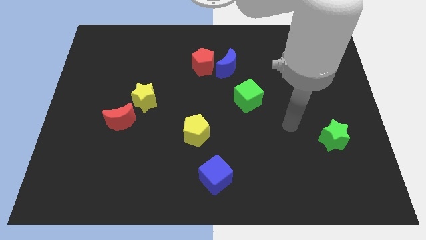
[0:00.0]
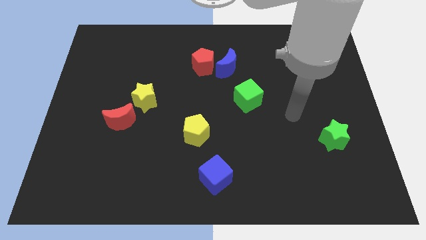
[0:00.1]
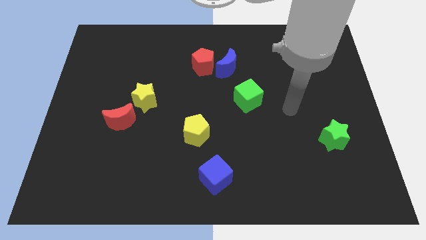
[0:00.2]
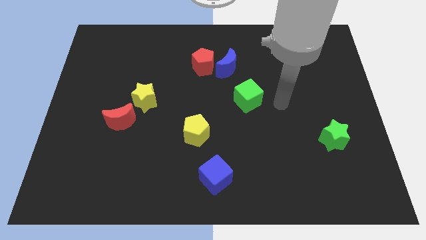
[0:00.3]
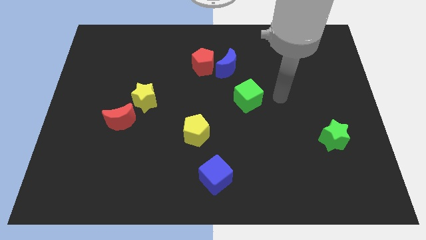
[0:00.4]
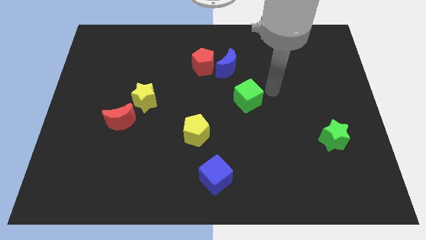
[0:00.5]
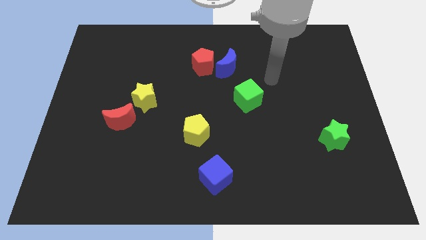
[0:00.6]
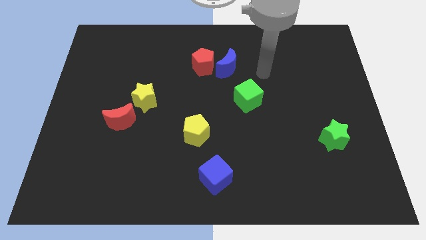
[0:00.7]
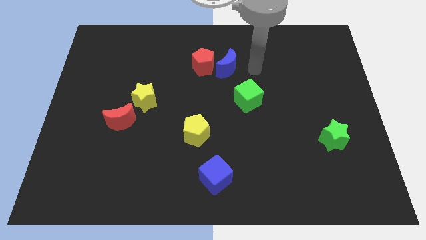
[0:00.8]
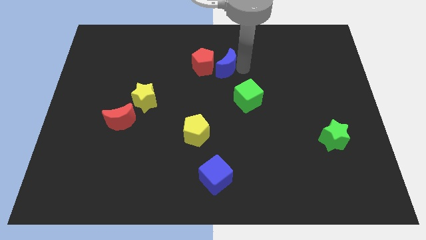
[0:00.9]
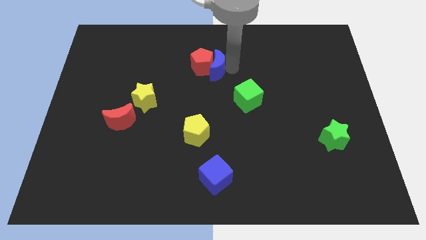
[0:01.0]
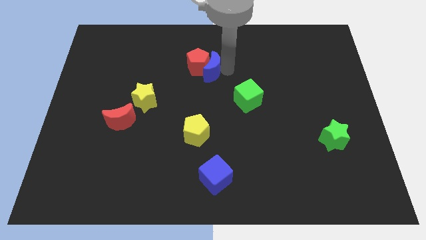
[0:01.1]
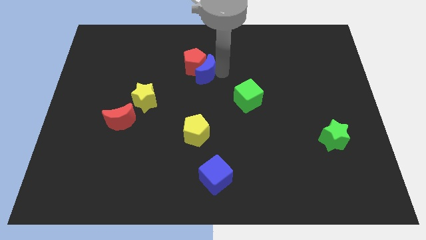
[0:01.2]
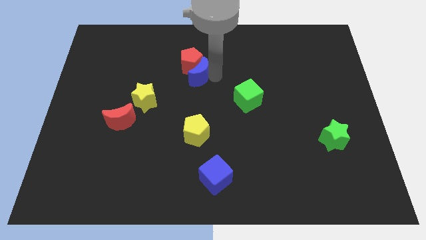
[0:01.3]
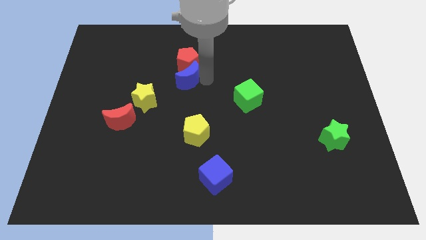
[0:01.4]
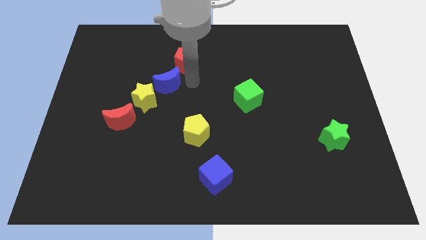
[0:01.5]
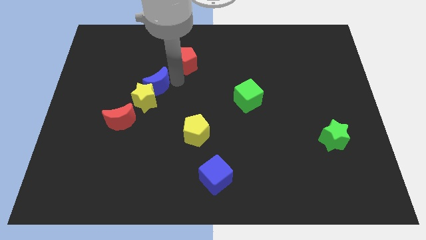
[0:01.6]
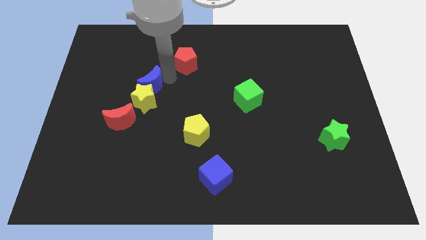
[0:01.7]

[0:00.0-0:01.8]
separate the red pentagon from the blue moon

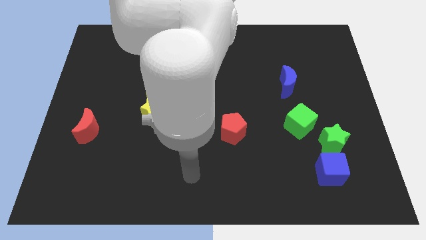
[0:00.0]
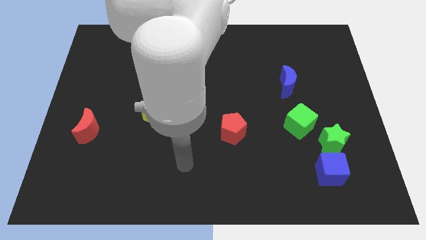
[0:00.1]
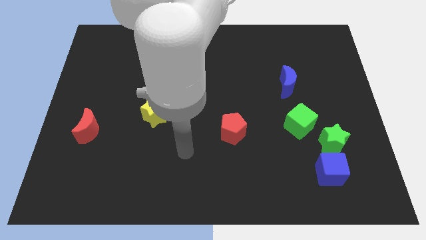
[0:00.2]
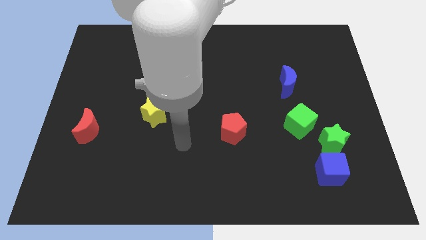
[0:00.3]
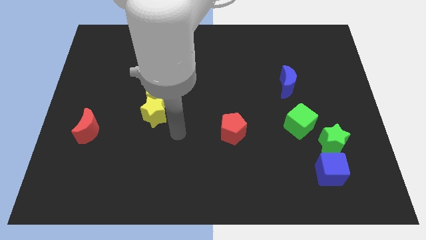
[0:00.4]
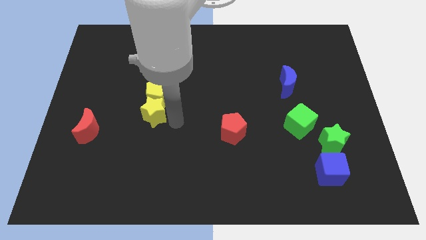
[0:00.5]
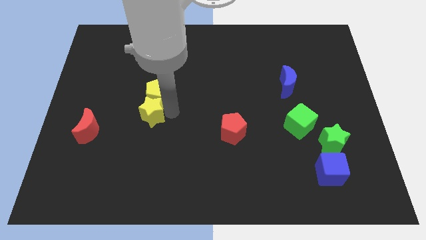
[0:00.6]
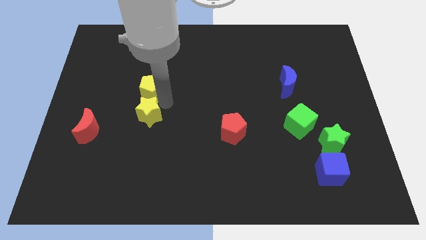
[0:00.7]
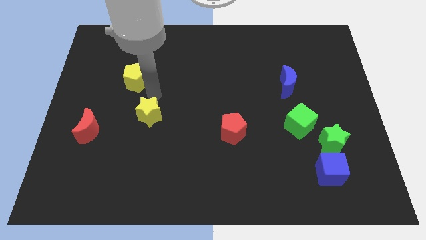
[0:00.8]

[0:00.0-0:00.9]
move the yellow star away from the yellow pentagon

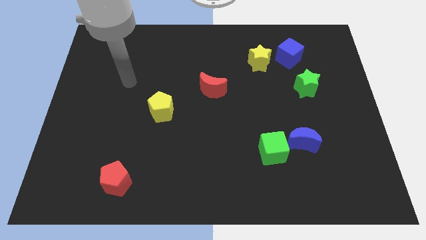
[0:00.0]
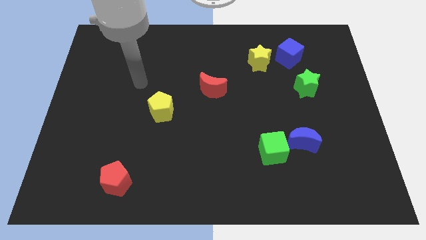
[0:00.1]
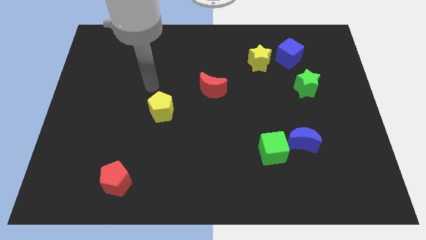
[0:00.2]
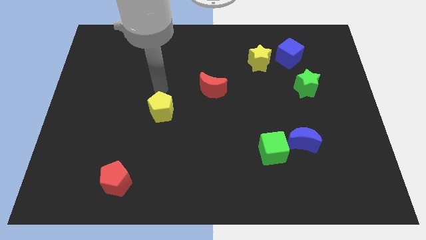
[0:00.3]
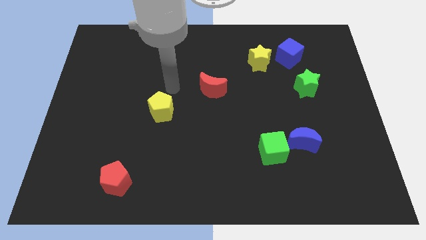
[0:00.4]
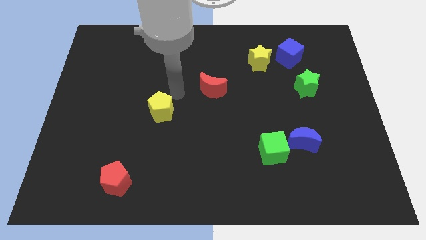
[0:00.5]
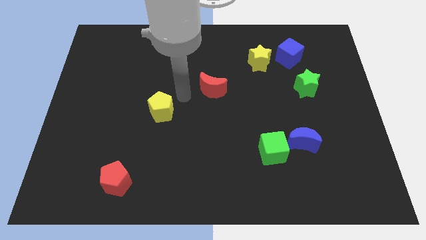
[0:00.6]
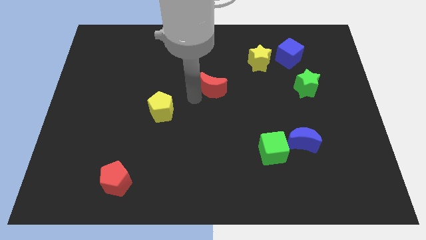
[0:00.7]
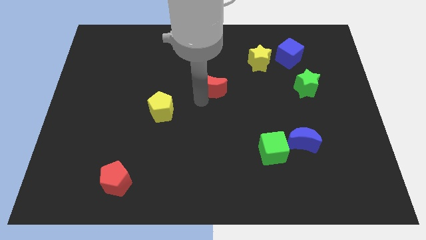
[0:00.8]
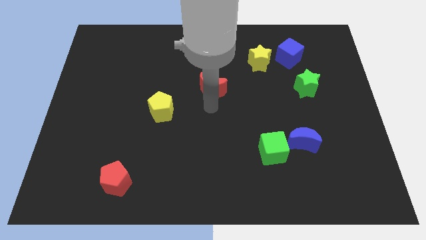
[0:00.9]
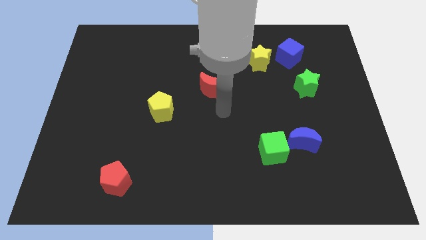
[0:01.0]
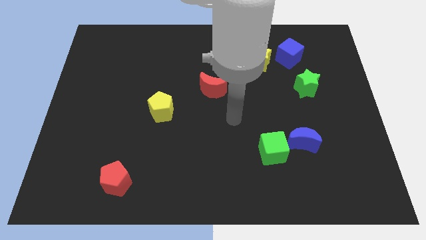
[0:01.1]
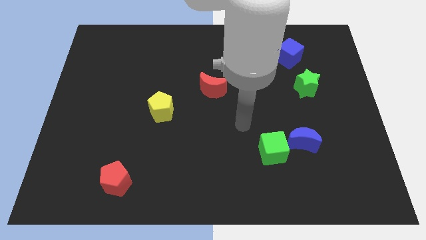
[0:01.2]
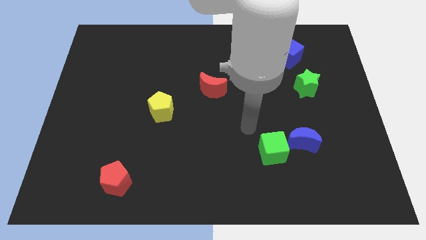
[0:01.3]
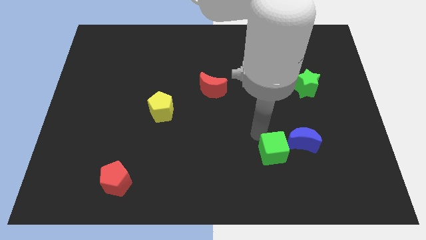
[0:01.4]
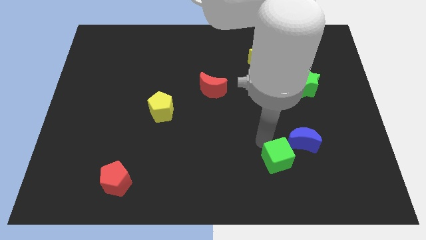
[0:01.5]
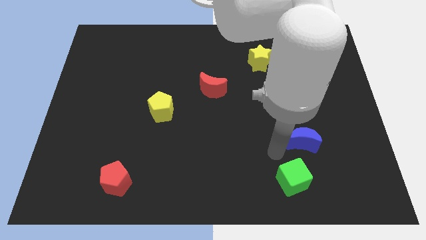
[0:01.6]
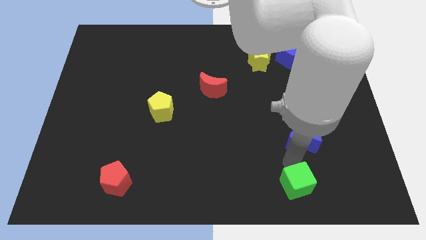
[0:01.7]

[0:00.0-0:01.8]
pull the blue moon apart from the green cube

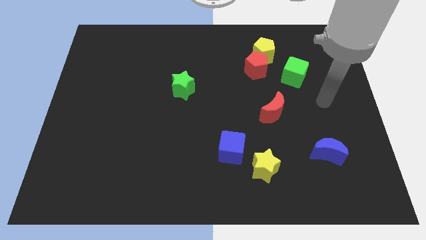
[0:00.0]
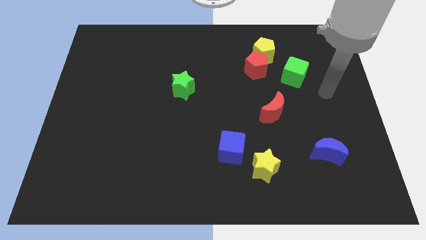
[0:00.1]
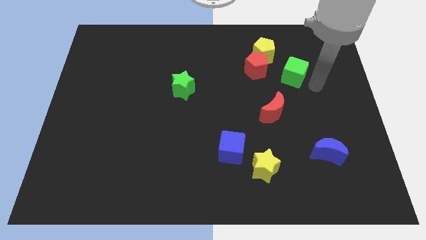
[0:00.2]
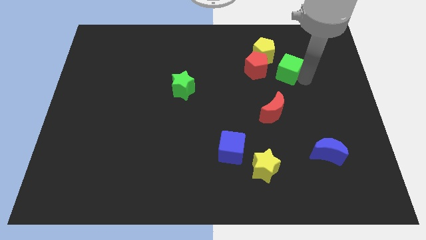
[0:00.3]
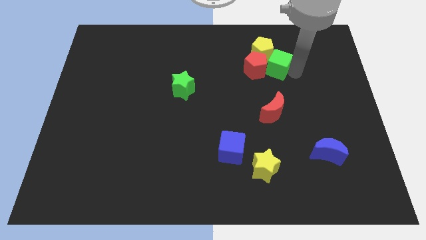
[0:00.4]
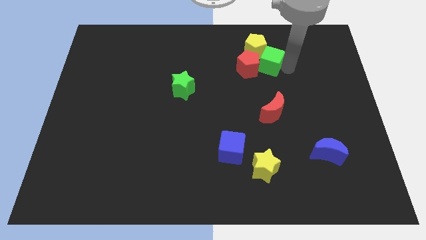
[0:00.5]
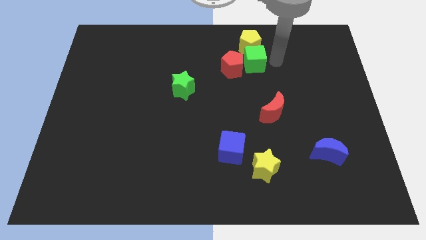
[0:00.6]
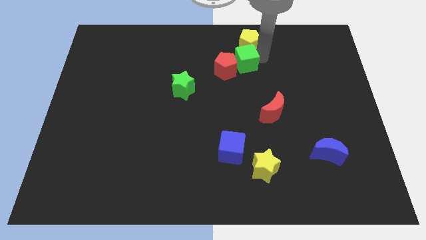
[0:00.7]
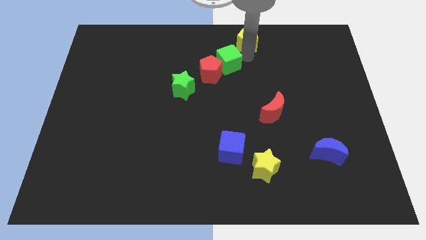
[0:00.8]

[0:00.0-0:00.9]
pull the red pentagon apart from the yellow pentagon and green cube

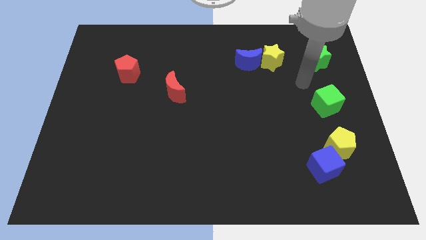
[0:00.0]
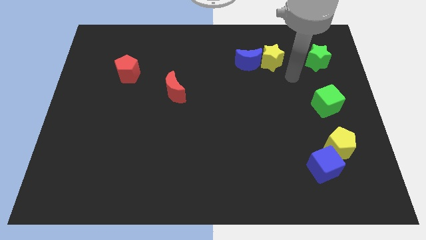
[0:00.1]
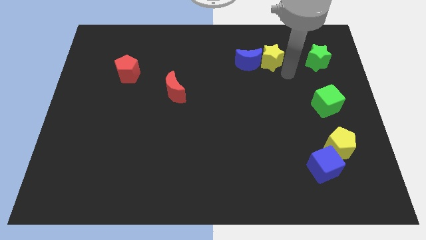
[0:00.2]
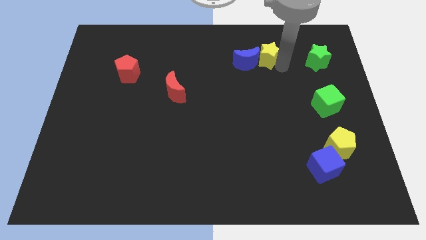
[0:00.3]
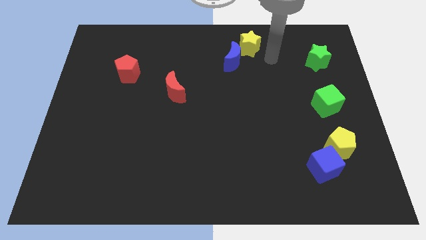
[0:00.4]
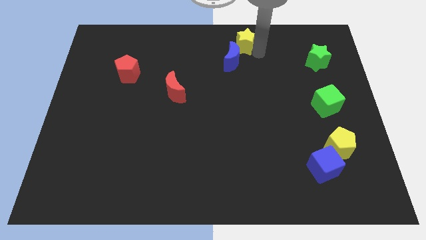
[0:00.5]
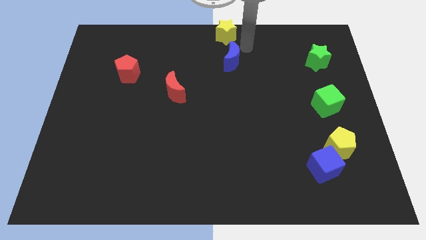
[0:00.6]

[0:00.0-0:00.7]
move the blue moon away from the yellow star

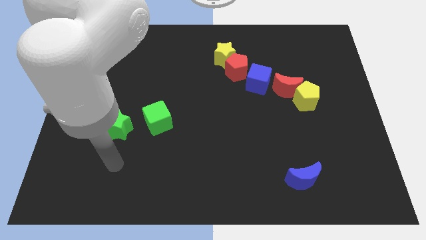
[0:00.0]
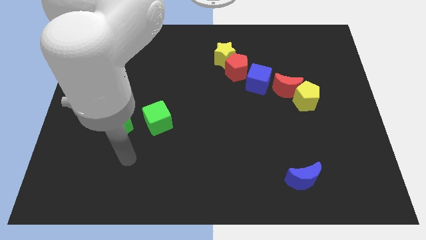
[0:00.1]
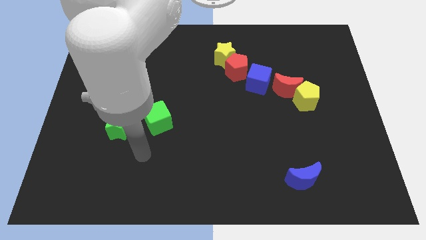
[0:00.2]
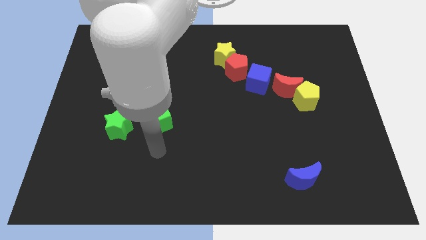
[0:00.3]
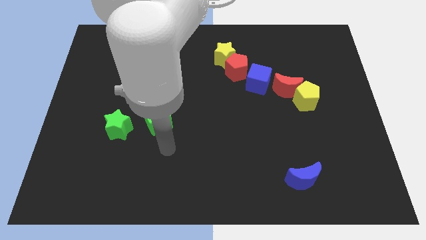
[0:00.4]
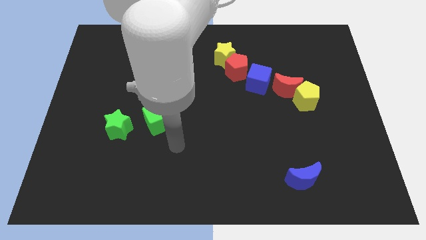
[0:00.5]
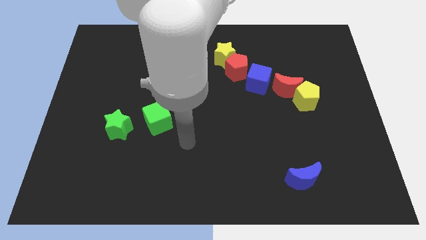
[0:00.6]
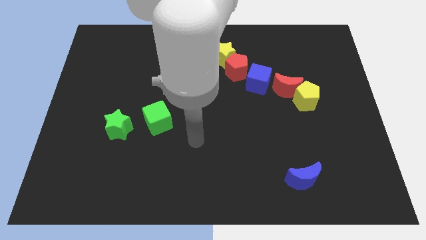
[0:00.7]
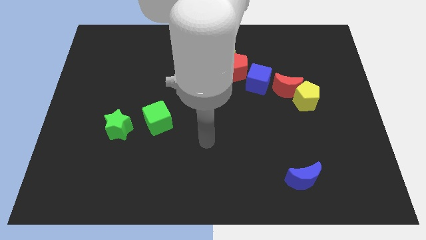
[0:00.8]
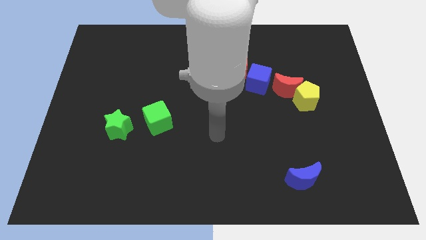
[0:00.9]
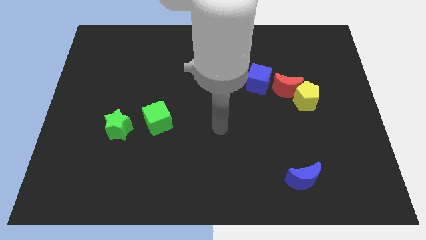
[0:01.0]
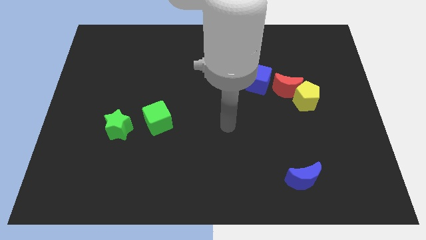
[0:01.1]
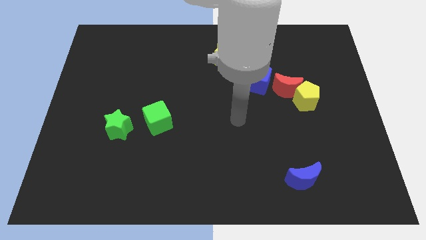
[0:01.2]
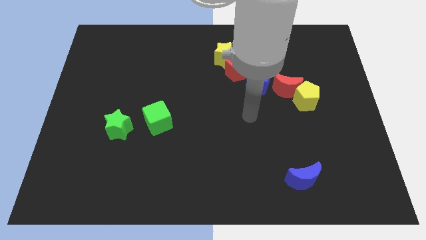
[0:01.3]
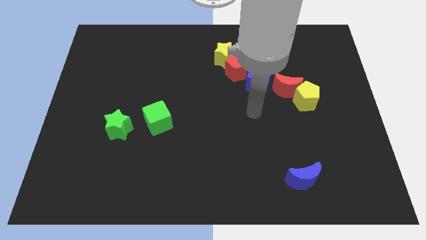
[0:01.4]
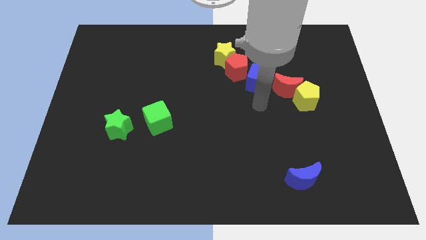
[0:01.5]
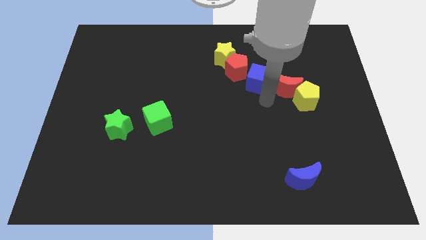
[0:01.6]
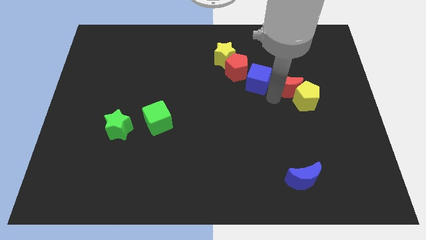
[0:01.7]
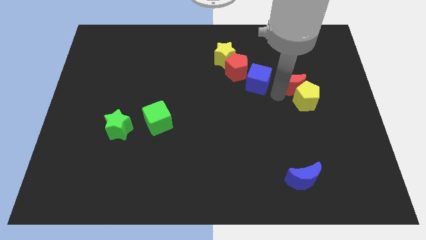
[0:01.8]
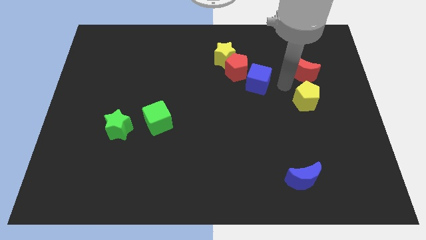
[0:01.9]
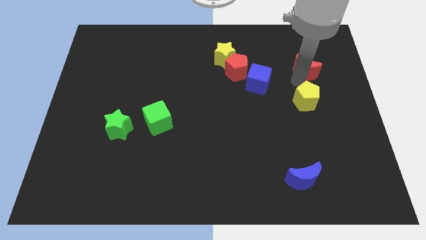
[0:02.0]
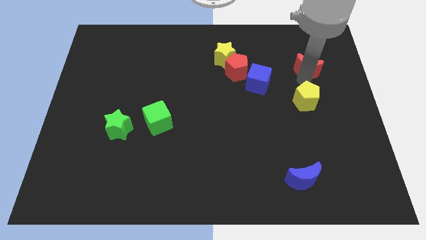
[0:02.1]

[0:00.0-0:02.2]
pull the yellow pentagon apart from the red moon

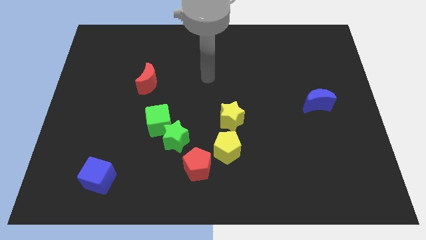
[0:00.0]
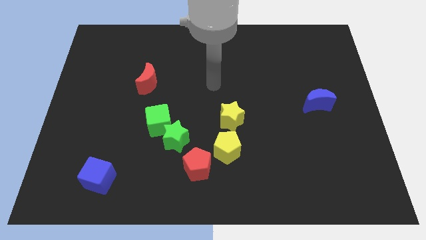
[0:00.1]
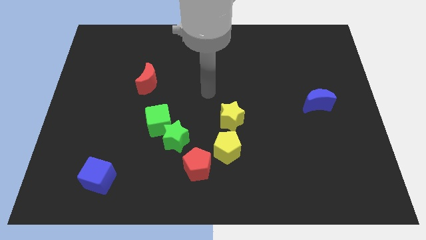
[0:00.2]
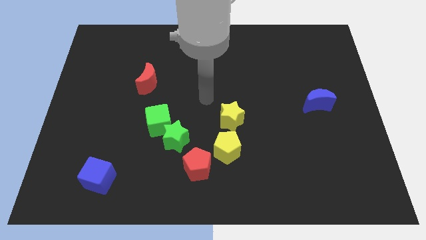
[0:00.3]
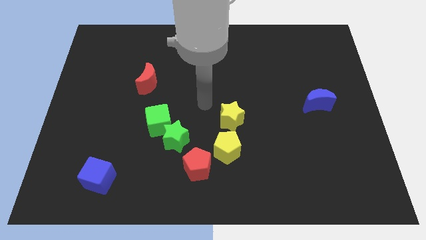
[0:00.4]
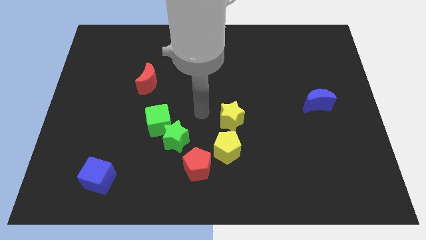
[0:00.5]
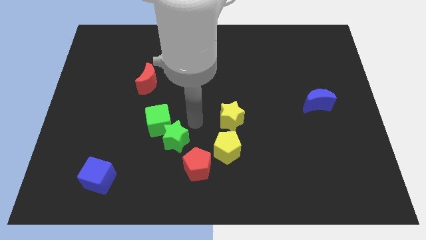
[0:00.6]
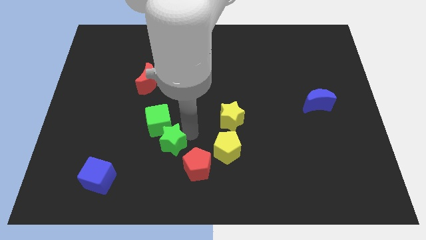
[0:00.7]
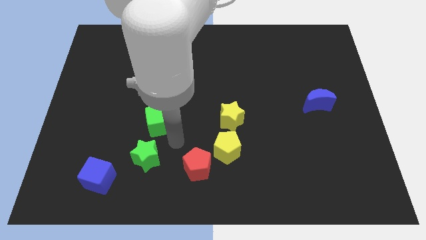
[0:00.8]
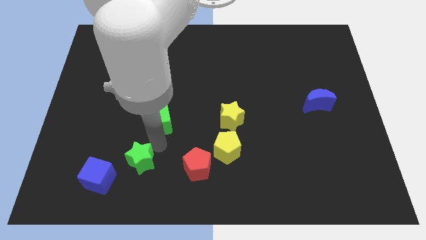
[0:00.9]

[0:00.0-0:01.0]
move the green cube away from the green star
